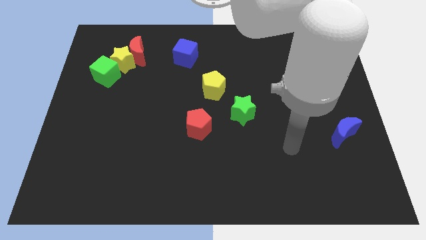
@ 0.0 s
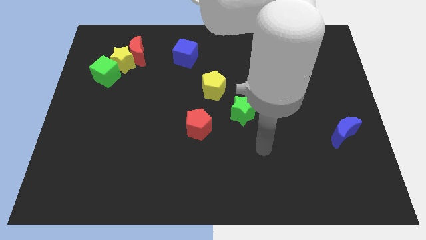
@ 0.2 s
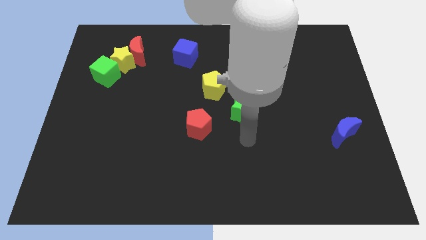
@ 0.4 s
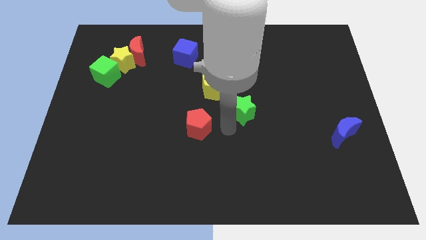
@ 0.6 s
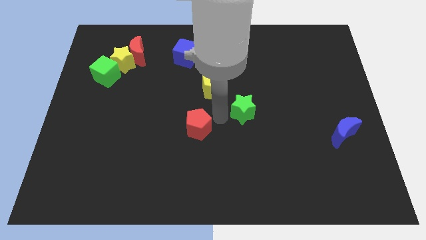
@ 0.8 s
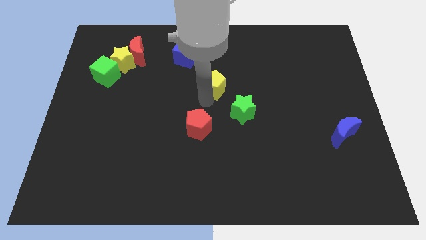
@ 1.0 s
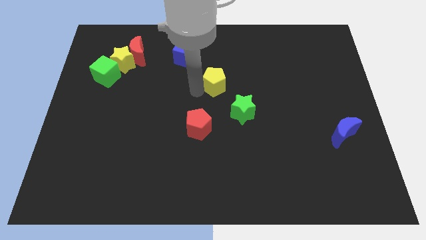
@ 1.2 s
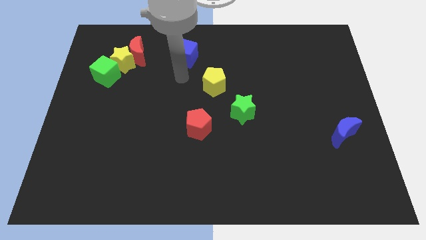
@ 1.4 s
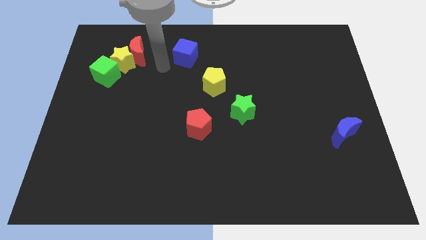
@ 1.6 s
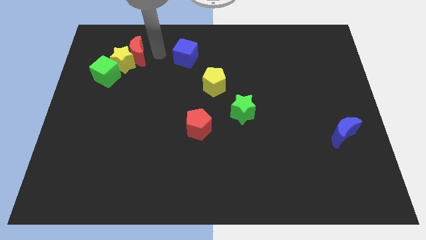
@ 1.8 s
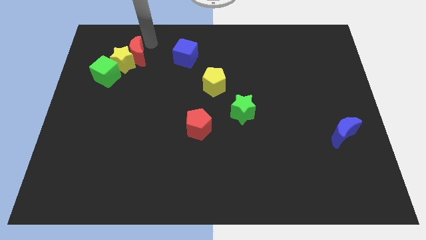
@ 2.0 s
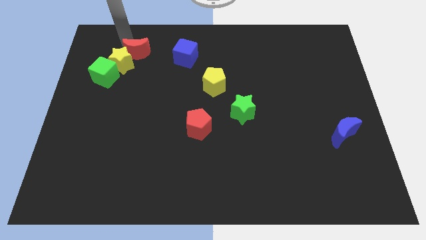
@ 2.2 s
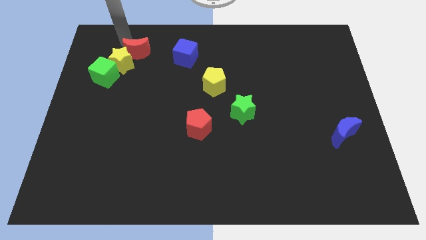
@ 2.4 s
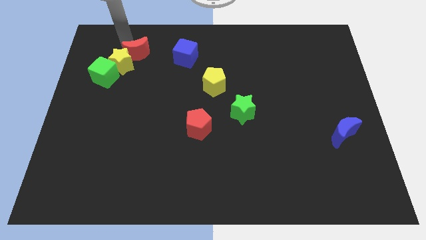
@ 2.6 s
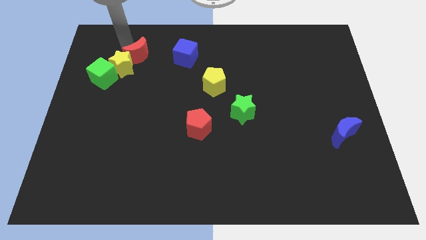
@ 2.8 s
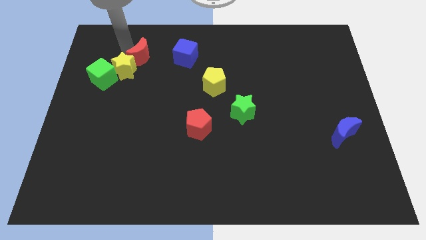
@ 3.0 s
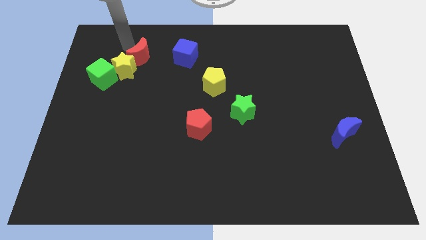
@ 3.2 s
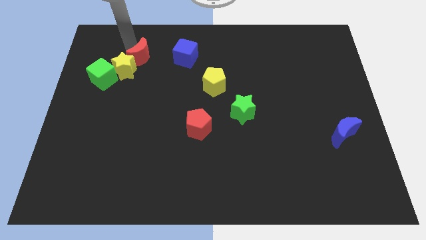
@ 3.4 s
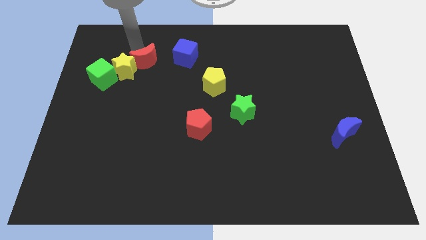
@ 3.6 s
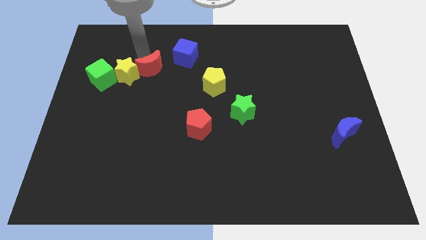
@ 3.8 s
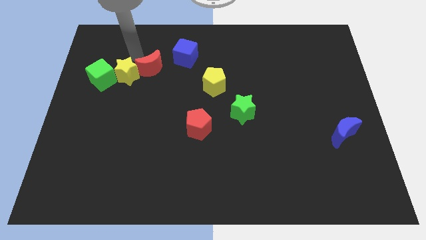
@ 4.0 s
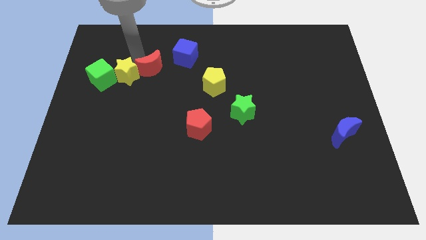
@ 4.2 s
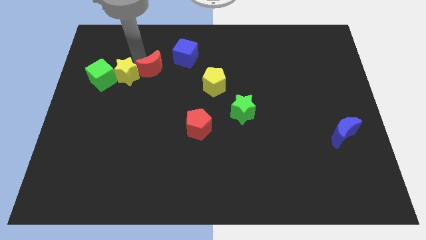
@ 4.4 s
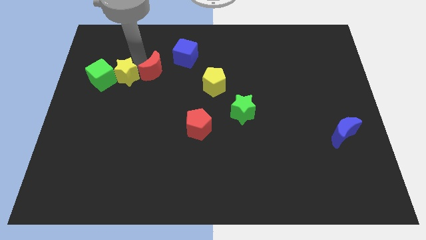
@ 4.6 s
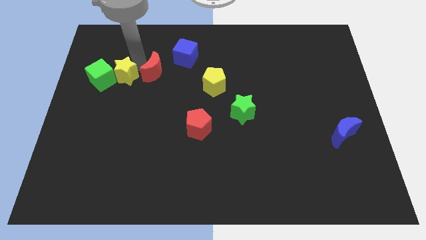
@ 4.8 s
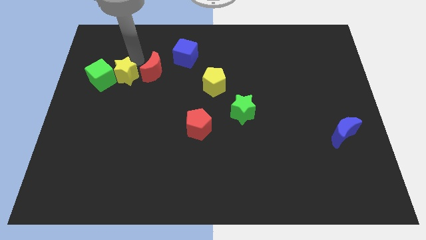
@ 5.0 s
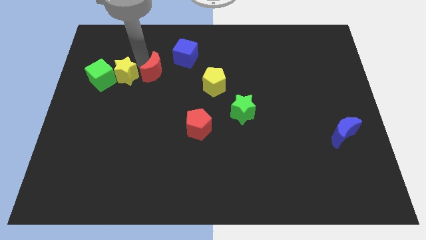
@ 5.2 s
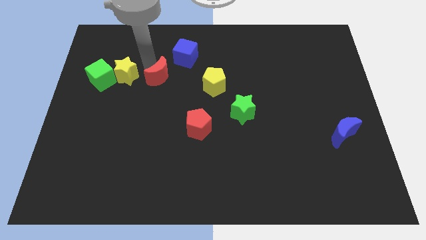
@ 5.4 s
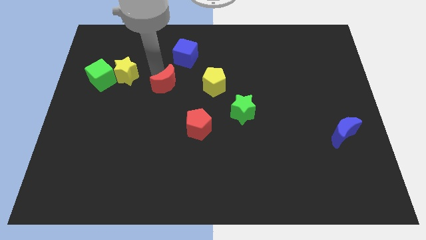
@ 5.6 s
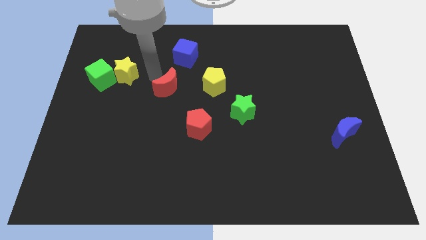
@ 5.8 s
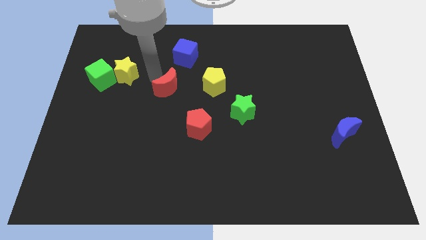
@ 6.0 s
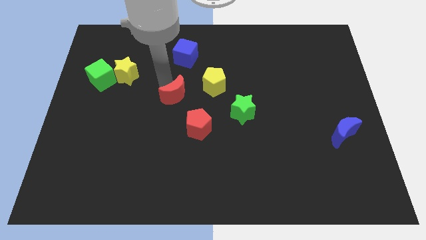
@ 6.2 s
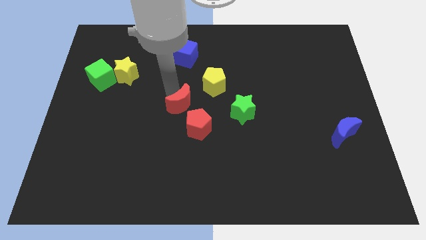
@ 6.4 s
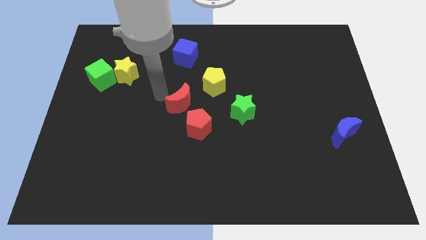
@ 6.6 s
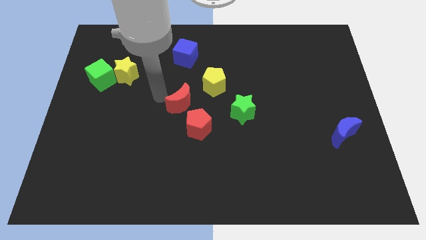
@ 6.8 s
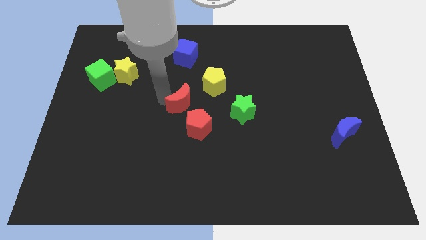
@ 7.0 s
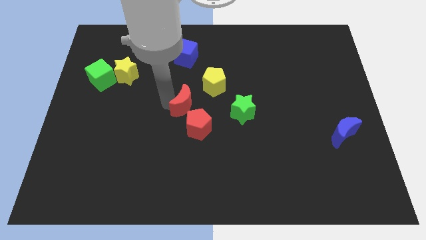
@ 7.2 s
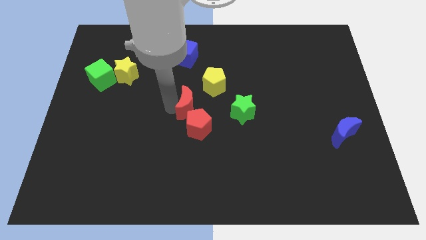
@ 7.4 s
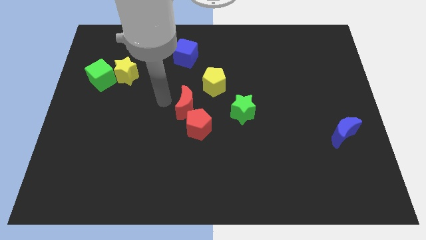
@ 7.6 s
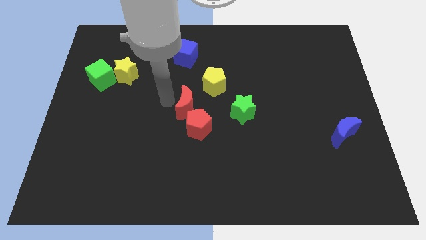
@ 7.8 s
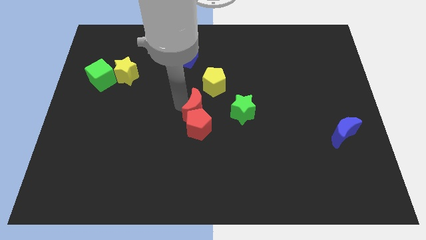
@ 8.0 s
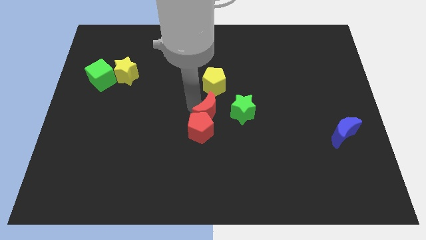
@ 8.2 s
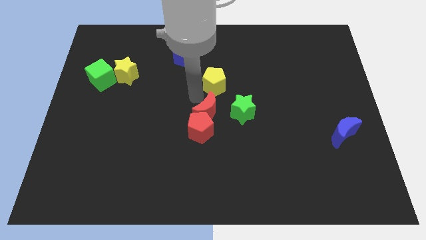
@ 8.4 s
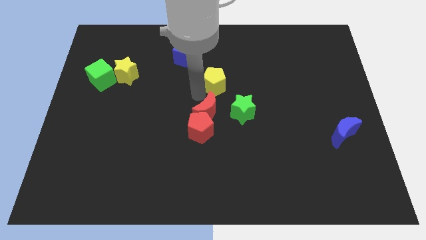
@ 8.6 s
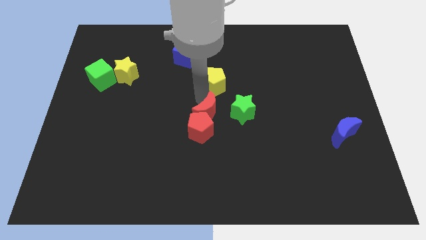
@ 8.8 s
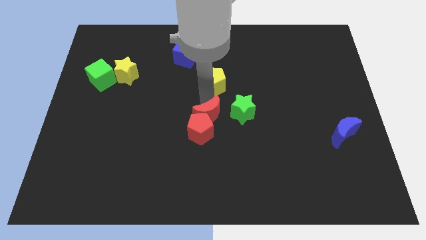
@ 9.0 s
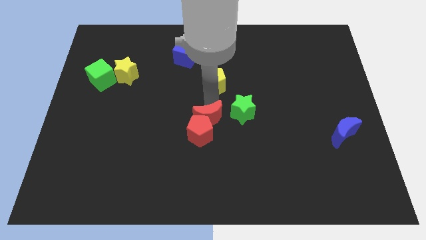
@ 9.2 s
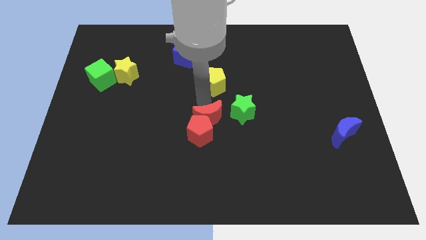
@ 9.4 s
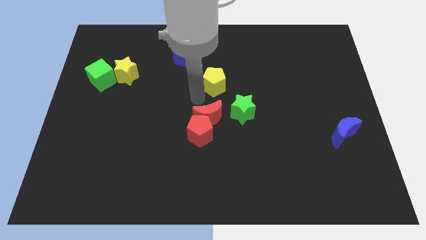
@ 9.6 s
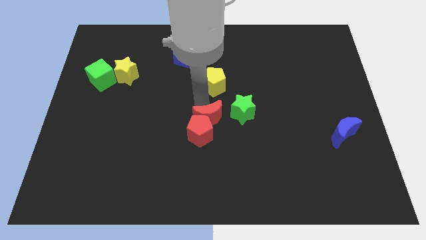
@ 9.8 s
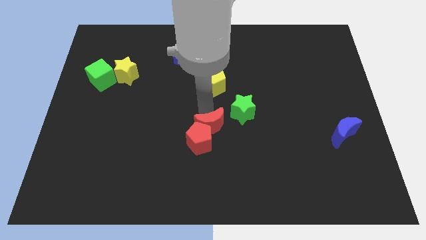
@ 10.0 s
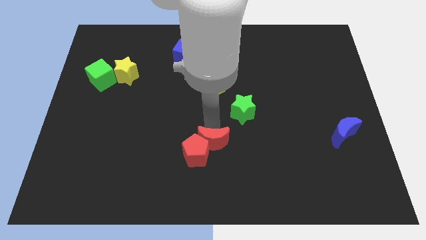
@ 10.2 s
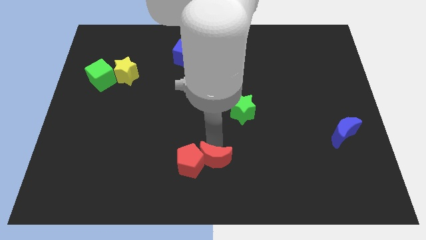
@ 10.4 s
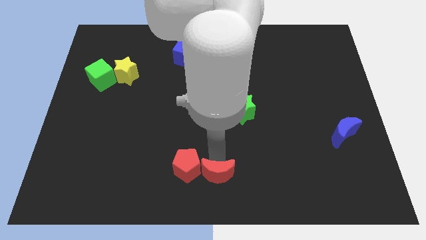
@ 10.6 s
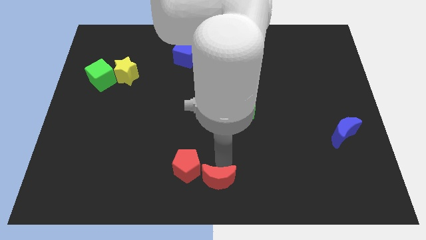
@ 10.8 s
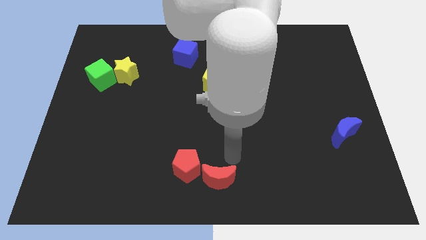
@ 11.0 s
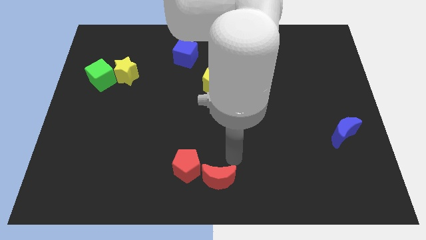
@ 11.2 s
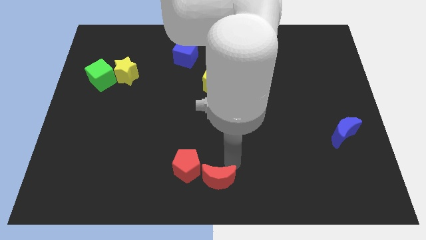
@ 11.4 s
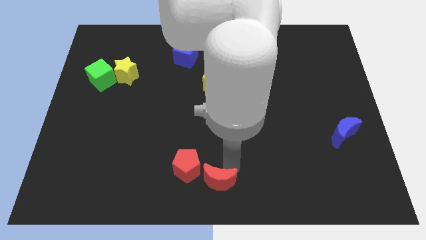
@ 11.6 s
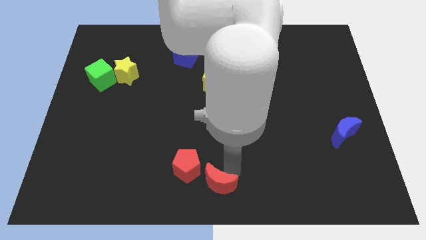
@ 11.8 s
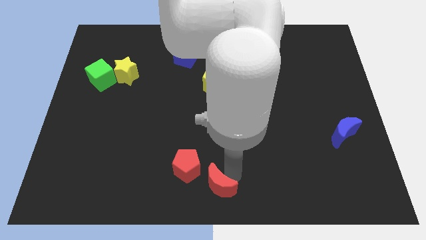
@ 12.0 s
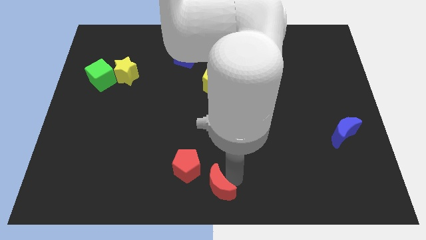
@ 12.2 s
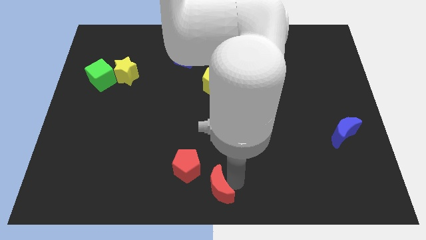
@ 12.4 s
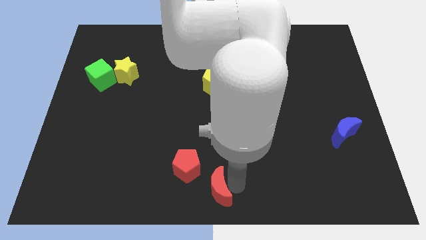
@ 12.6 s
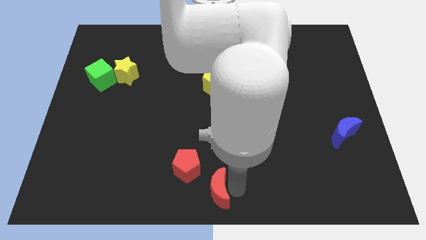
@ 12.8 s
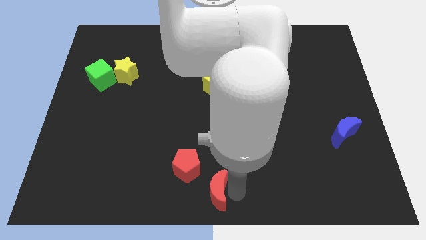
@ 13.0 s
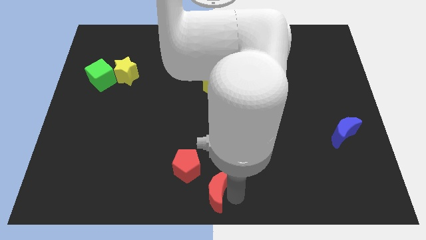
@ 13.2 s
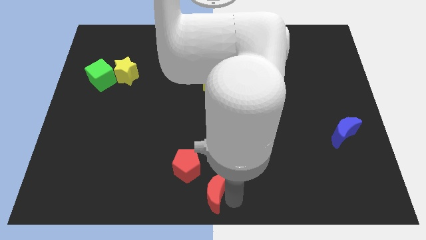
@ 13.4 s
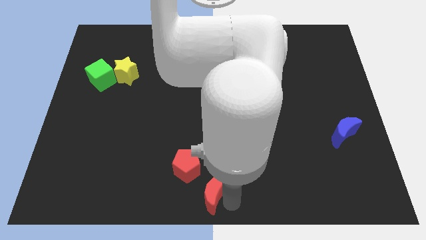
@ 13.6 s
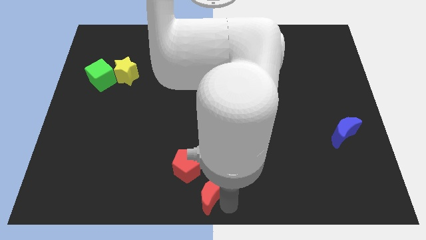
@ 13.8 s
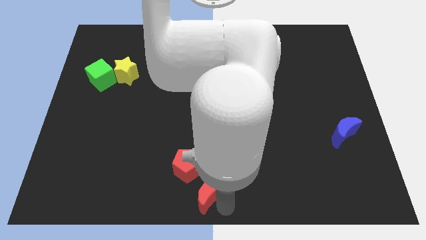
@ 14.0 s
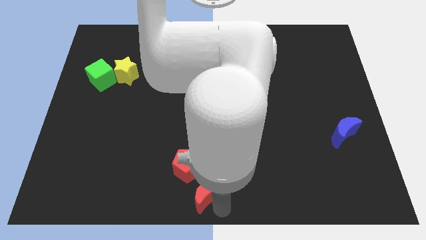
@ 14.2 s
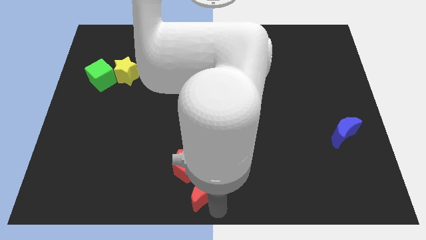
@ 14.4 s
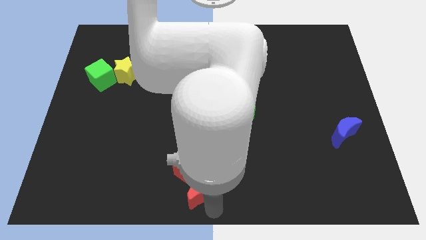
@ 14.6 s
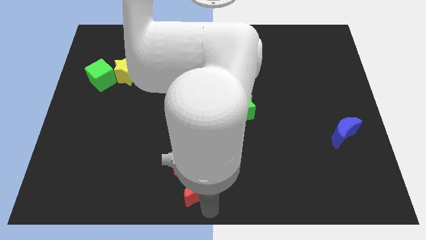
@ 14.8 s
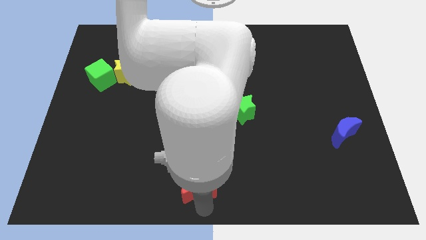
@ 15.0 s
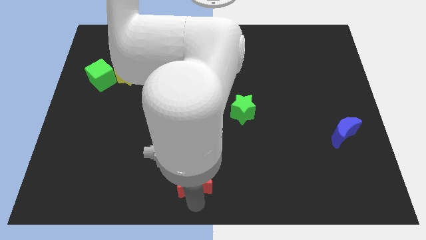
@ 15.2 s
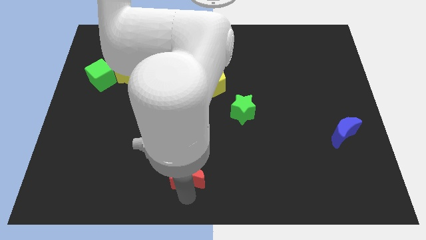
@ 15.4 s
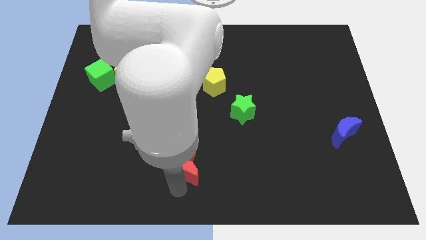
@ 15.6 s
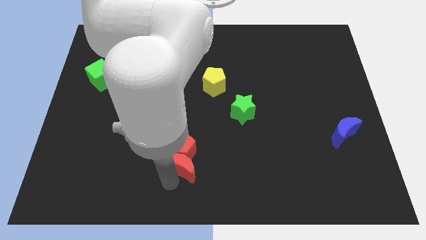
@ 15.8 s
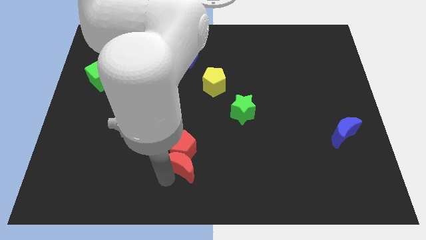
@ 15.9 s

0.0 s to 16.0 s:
push the red moon diagonally down and to the right of the red pentagon
